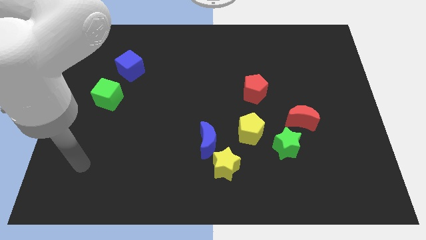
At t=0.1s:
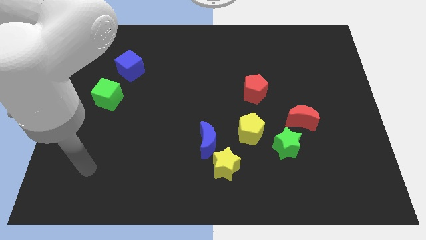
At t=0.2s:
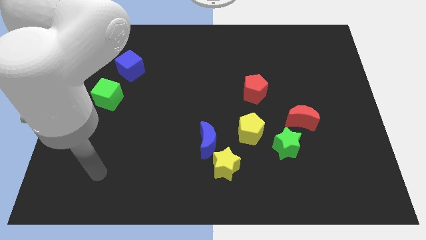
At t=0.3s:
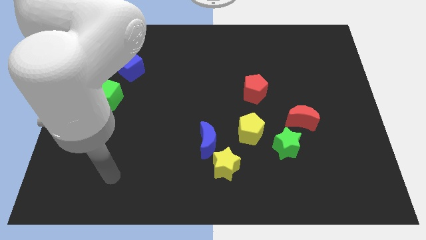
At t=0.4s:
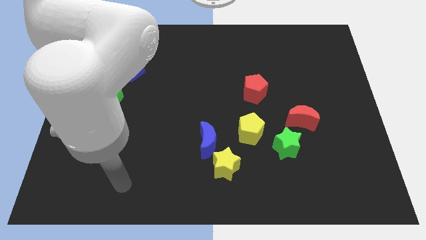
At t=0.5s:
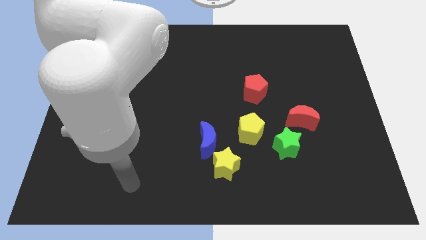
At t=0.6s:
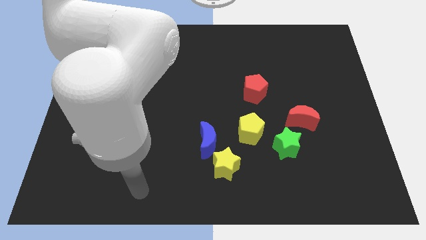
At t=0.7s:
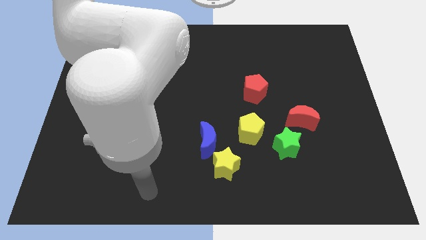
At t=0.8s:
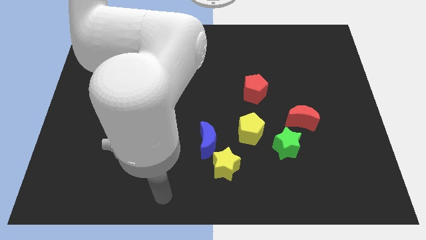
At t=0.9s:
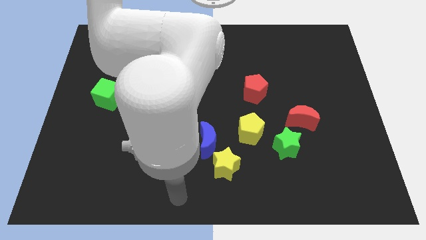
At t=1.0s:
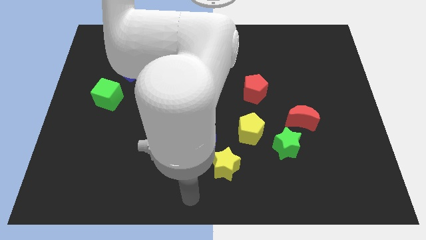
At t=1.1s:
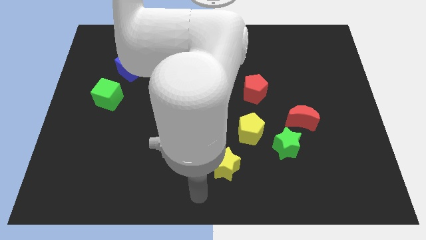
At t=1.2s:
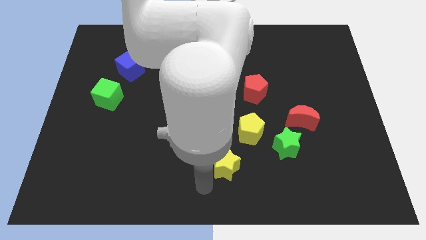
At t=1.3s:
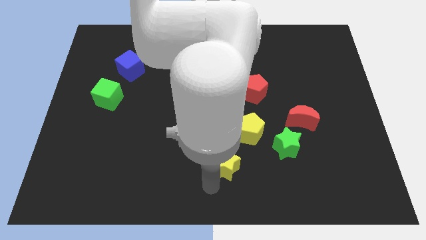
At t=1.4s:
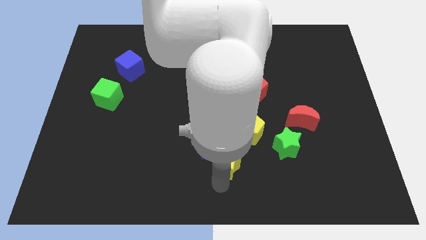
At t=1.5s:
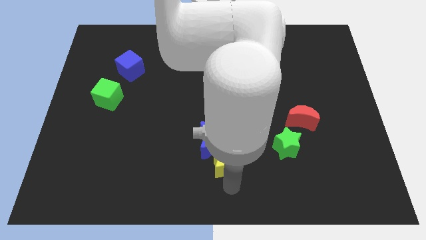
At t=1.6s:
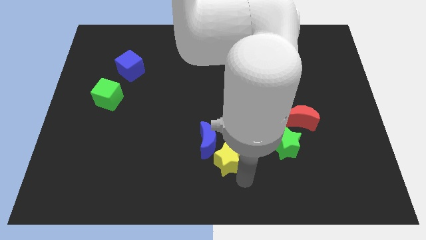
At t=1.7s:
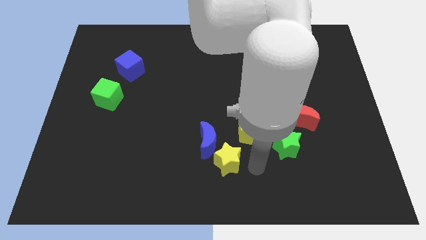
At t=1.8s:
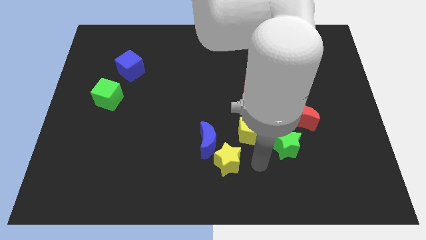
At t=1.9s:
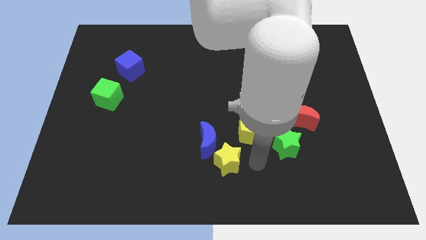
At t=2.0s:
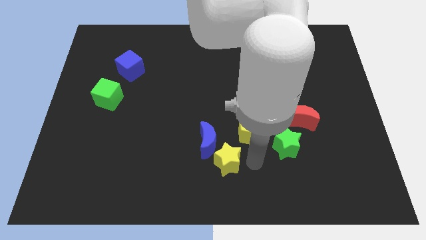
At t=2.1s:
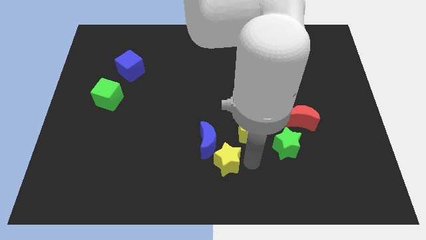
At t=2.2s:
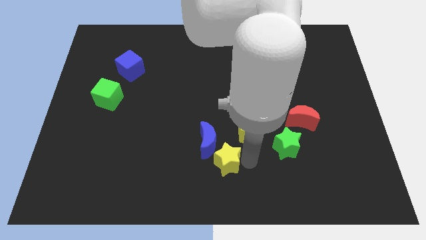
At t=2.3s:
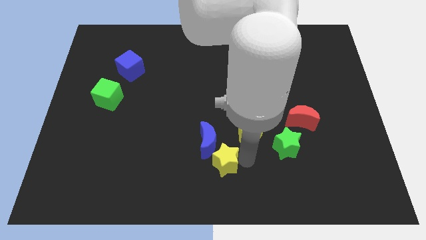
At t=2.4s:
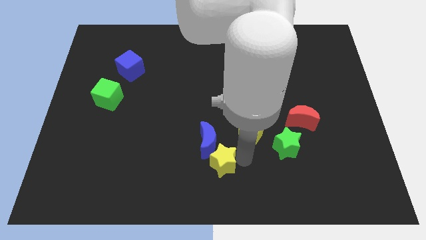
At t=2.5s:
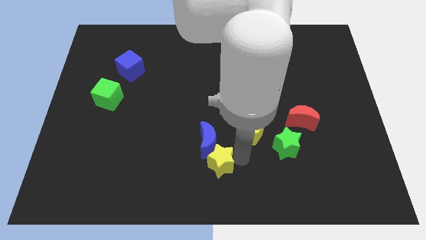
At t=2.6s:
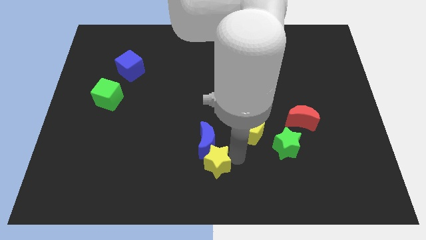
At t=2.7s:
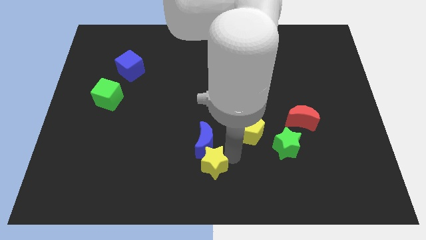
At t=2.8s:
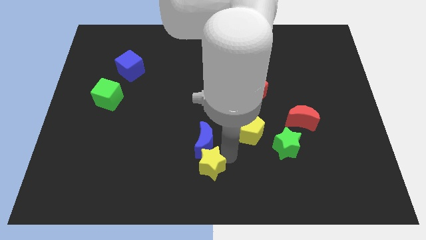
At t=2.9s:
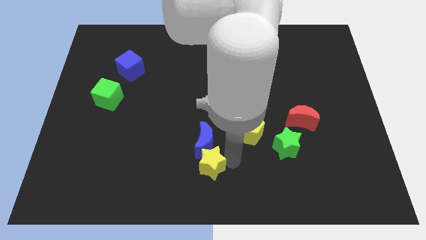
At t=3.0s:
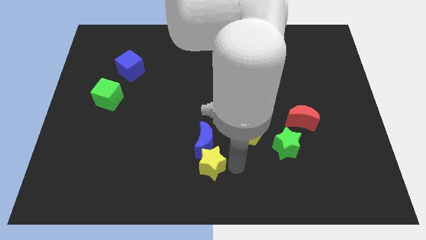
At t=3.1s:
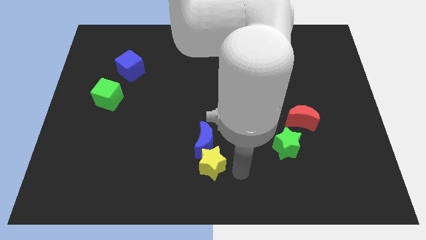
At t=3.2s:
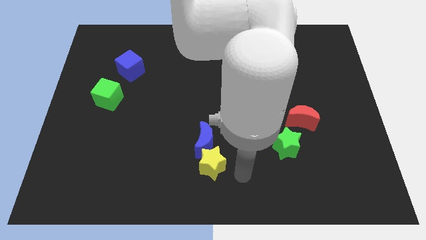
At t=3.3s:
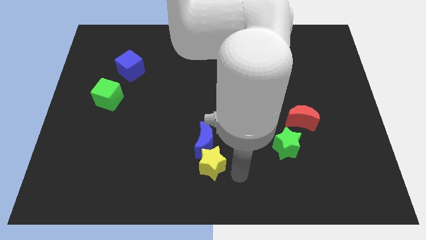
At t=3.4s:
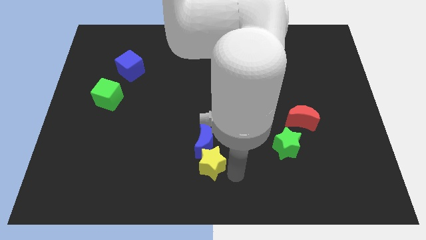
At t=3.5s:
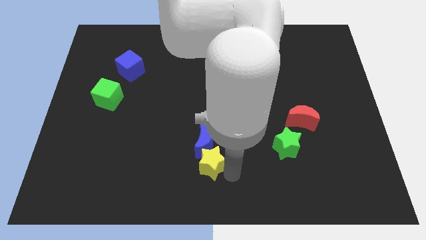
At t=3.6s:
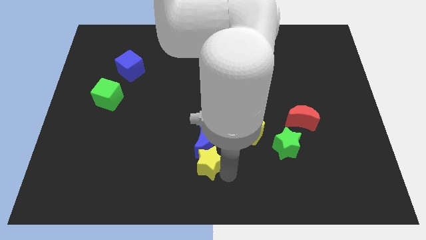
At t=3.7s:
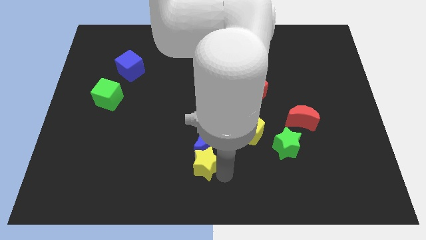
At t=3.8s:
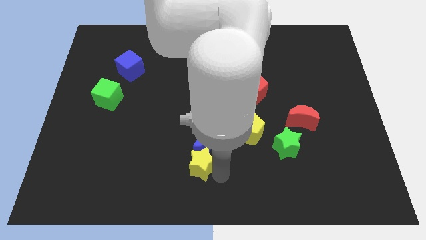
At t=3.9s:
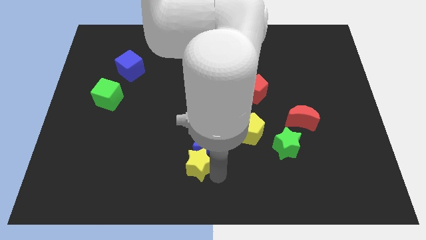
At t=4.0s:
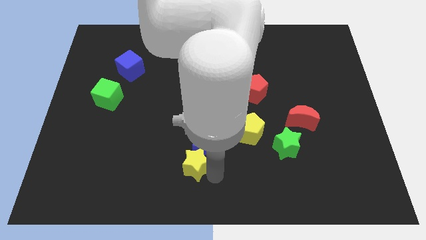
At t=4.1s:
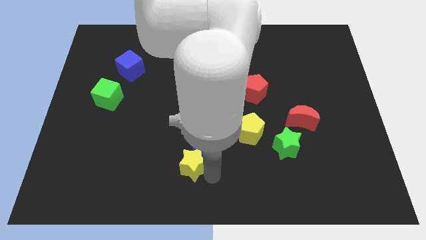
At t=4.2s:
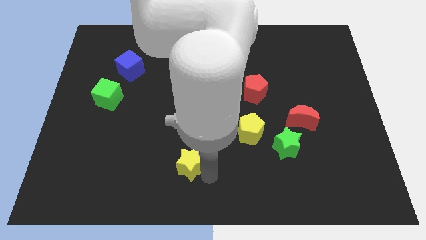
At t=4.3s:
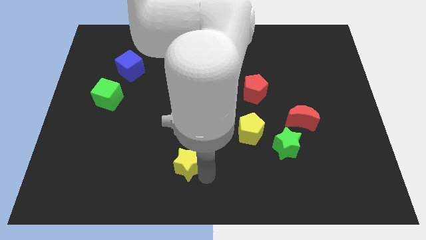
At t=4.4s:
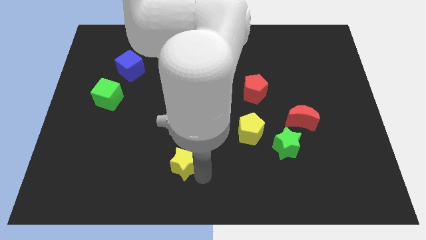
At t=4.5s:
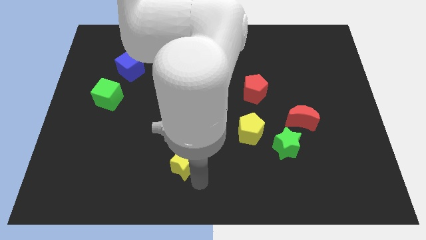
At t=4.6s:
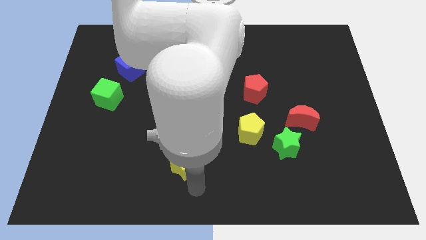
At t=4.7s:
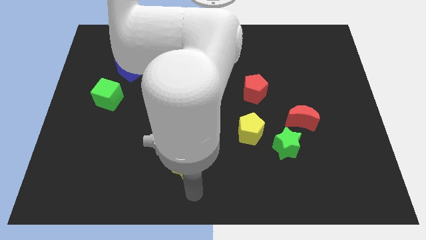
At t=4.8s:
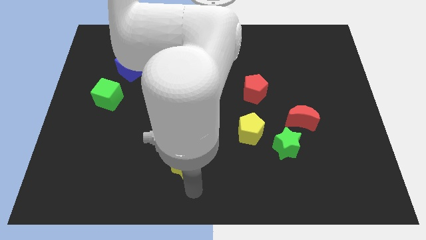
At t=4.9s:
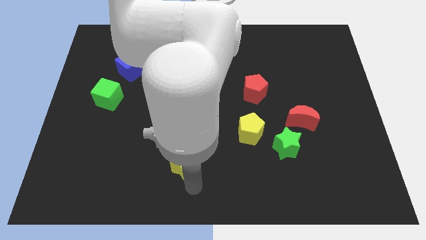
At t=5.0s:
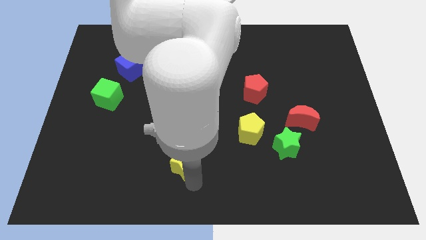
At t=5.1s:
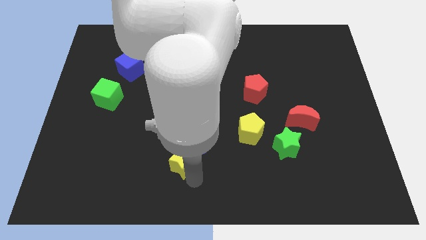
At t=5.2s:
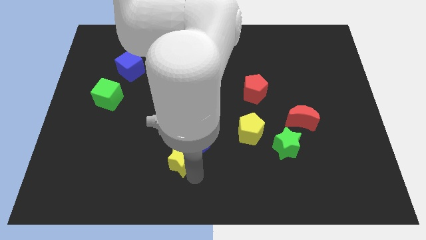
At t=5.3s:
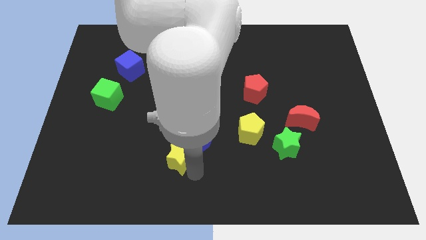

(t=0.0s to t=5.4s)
slightly move the yellow star diagonally up and to the left

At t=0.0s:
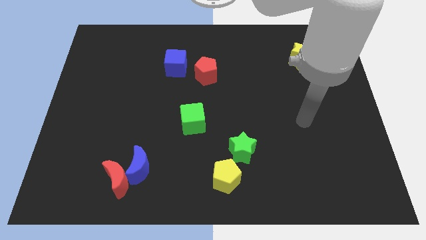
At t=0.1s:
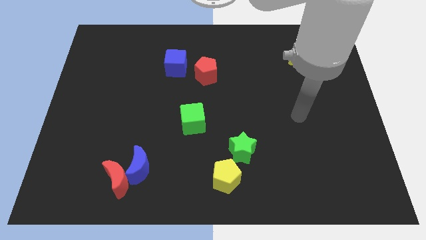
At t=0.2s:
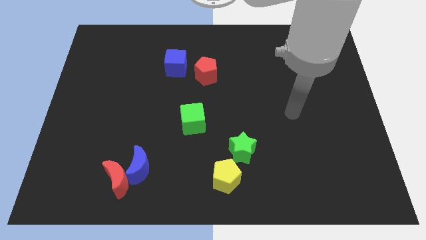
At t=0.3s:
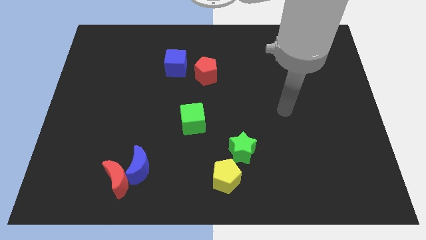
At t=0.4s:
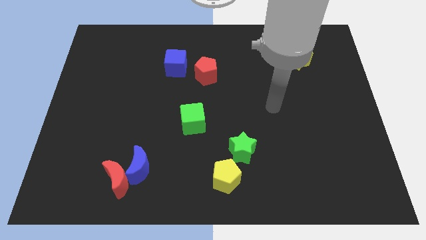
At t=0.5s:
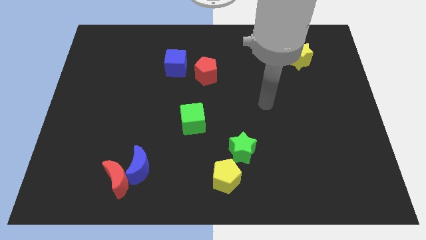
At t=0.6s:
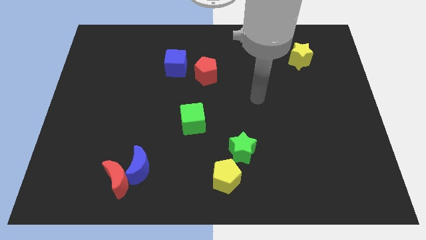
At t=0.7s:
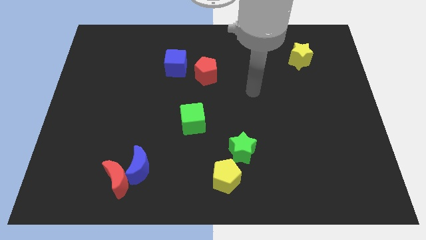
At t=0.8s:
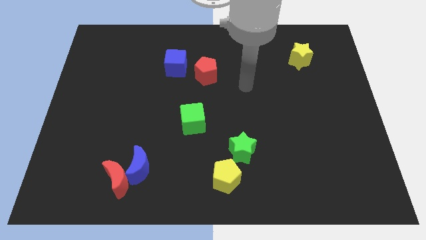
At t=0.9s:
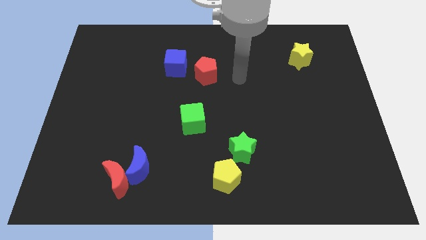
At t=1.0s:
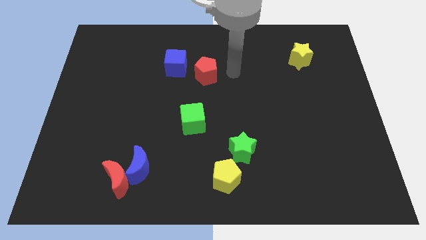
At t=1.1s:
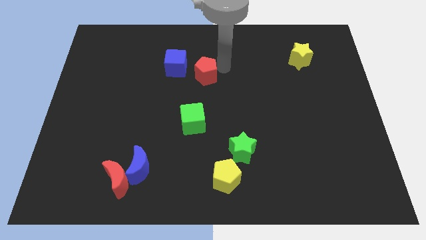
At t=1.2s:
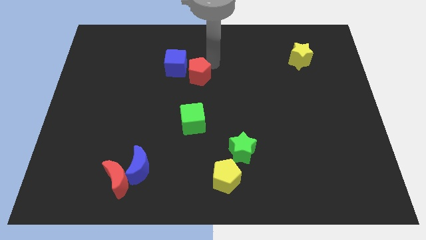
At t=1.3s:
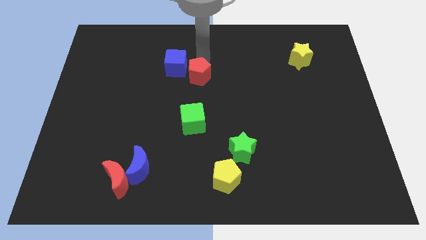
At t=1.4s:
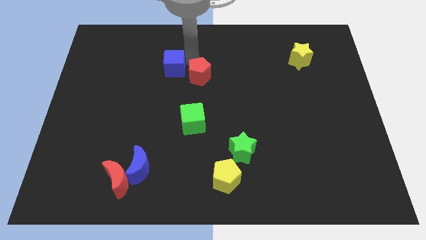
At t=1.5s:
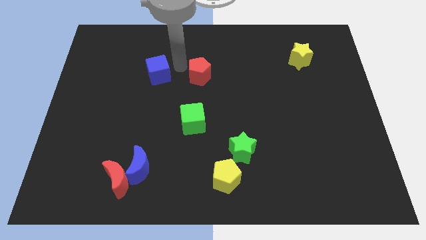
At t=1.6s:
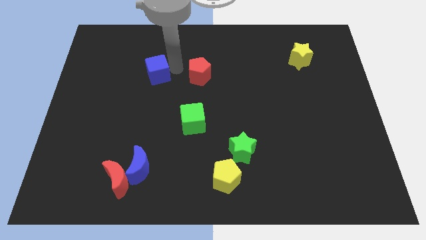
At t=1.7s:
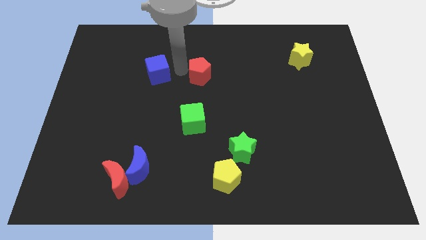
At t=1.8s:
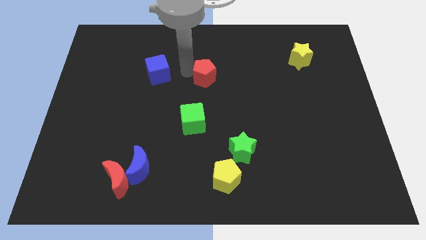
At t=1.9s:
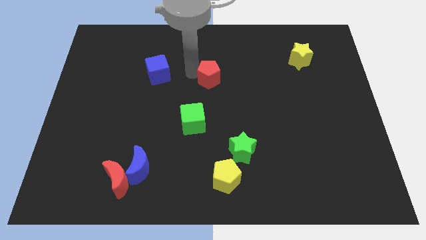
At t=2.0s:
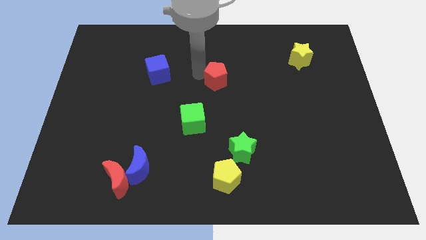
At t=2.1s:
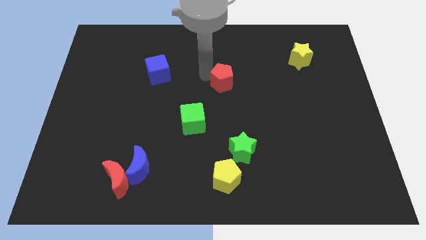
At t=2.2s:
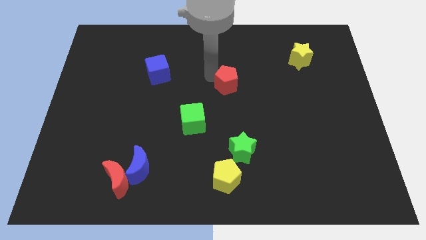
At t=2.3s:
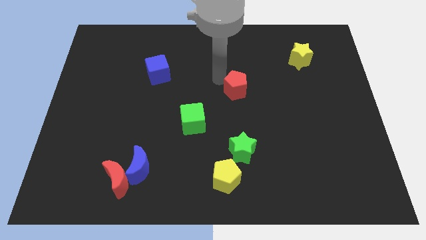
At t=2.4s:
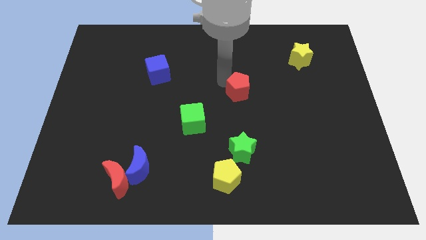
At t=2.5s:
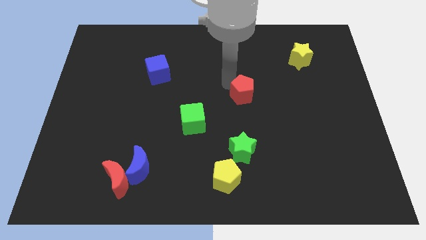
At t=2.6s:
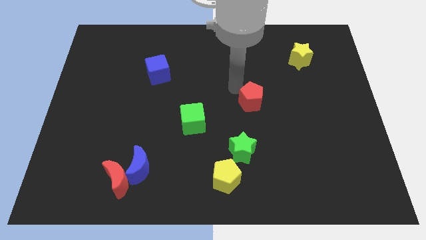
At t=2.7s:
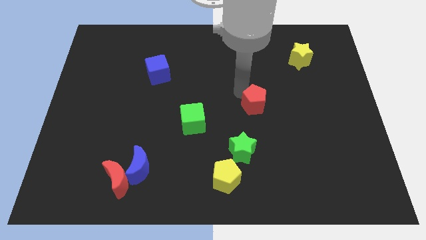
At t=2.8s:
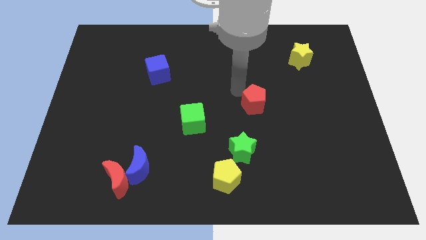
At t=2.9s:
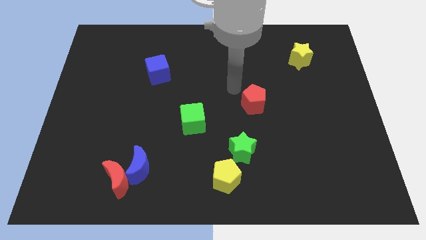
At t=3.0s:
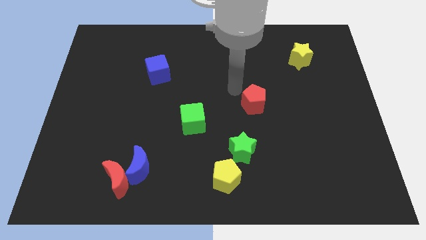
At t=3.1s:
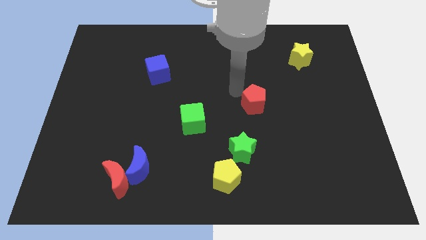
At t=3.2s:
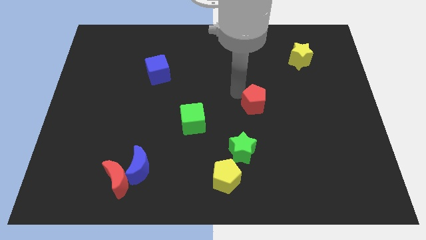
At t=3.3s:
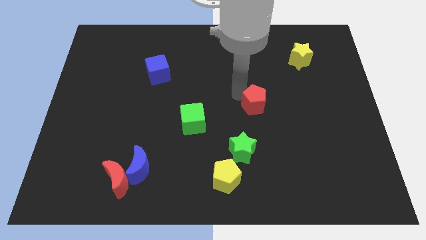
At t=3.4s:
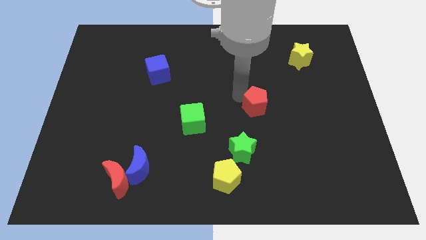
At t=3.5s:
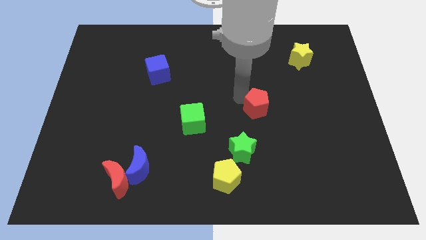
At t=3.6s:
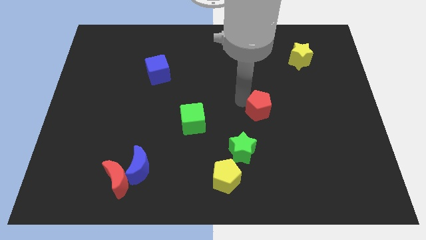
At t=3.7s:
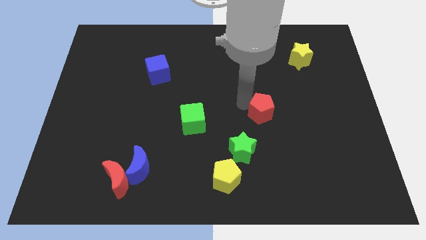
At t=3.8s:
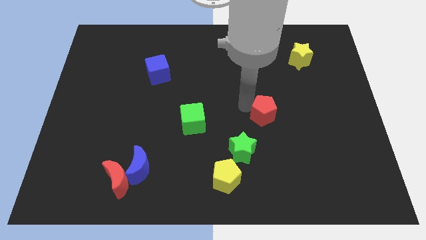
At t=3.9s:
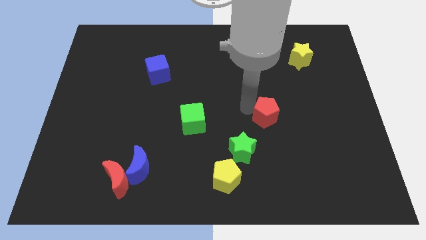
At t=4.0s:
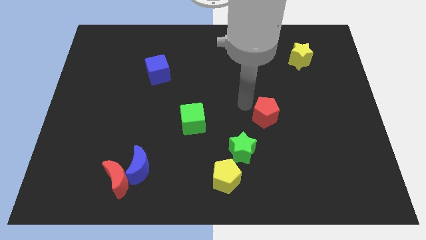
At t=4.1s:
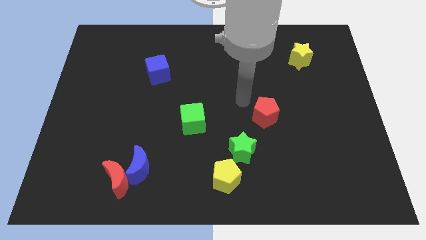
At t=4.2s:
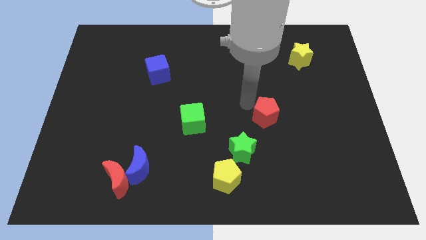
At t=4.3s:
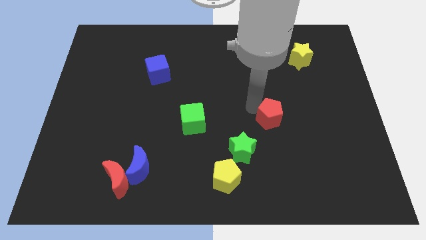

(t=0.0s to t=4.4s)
push the red pentagon downwards and to the right
